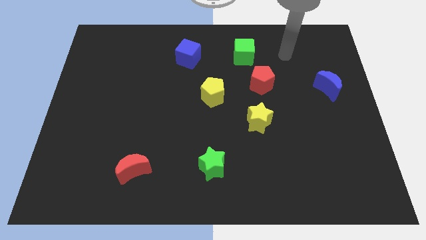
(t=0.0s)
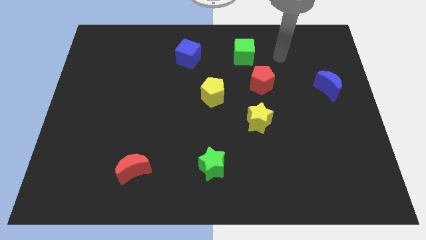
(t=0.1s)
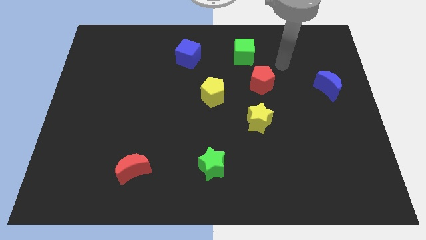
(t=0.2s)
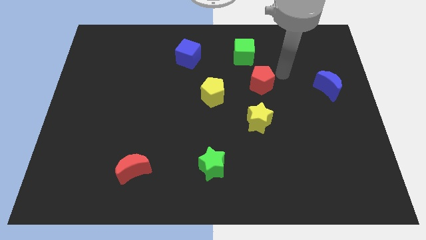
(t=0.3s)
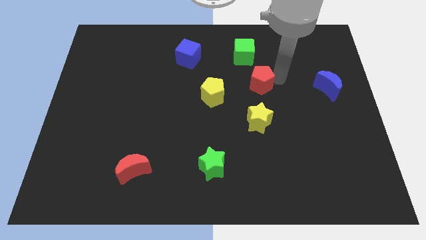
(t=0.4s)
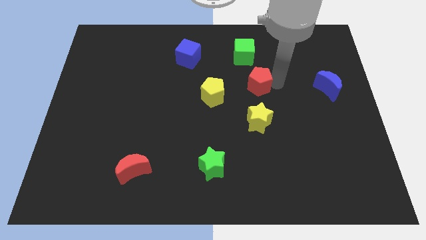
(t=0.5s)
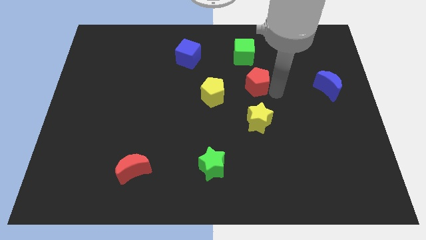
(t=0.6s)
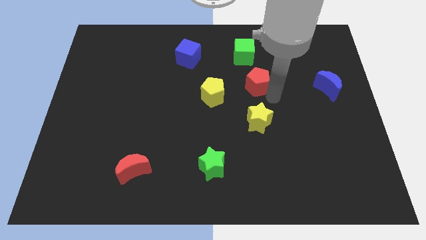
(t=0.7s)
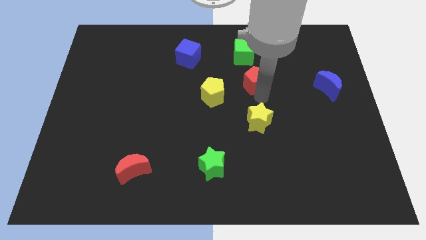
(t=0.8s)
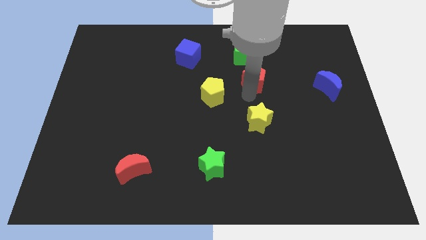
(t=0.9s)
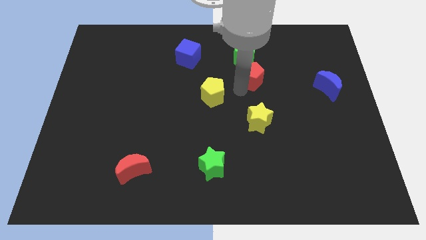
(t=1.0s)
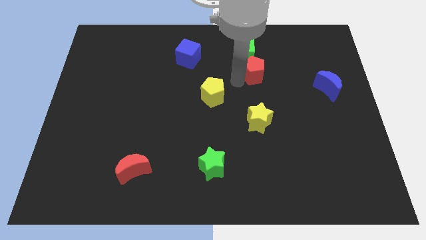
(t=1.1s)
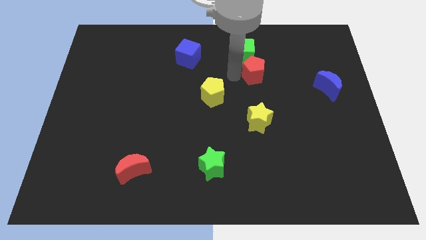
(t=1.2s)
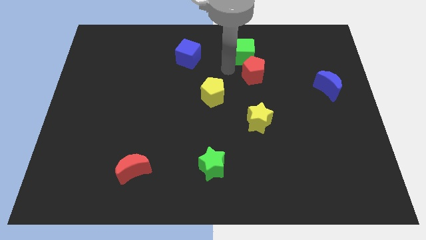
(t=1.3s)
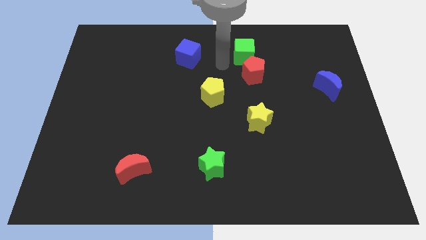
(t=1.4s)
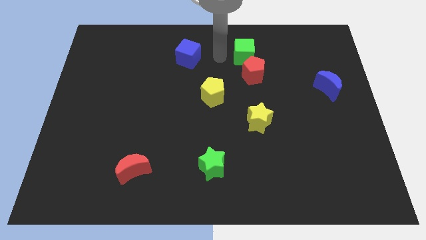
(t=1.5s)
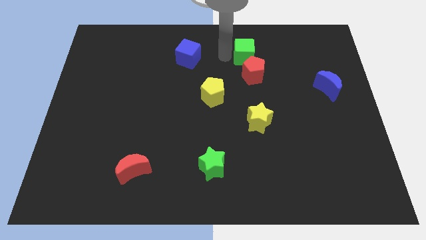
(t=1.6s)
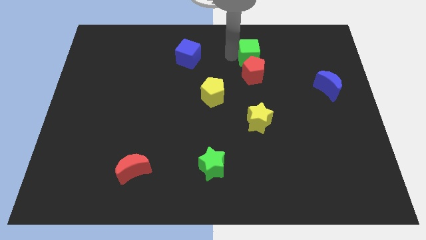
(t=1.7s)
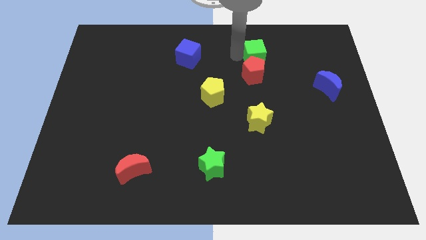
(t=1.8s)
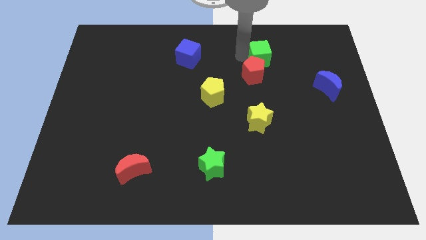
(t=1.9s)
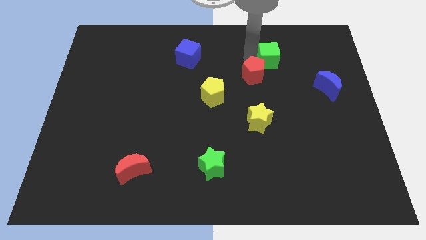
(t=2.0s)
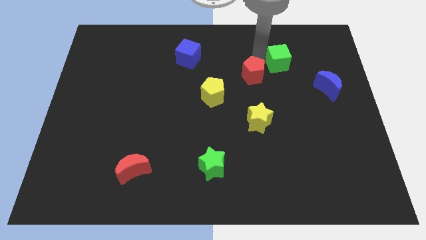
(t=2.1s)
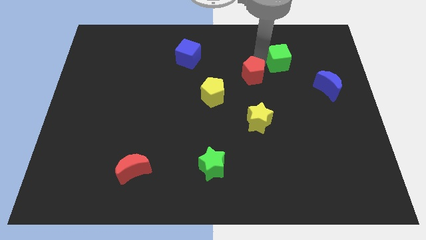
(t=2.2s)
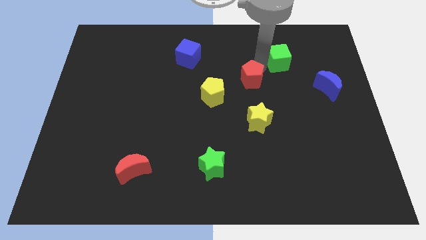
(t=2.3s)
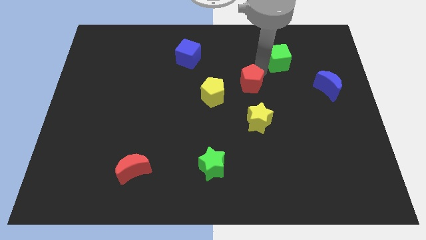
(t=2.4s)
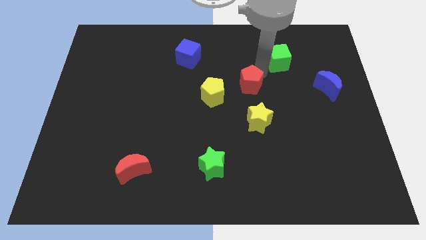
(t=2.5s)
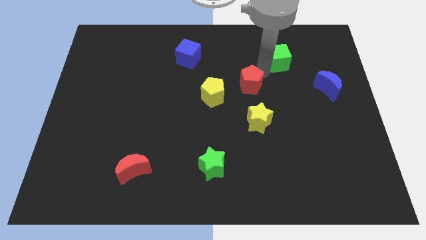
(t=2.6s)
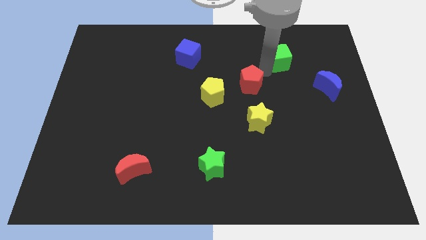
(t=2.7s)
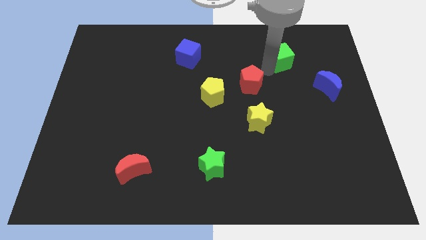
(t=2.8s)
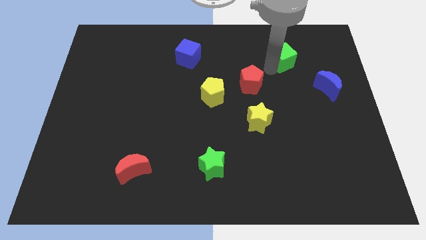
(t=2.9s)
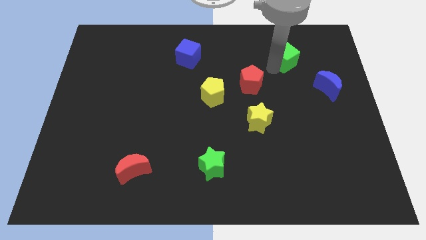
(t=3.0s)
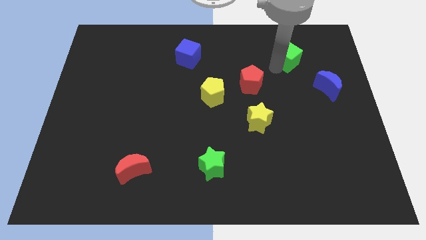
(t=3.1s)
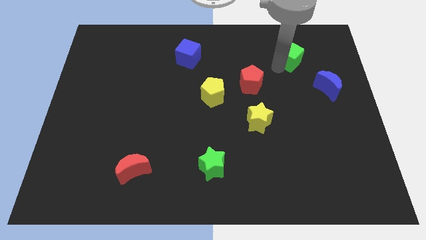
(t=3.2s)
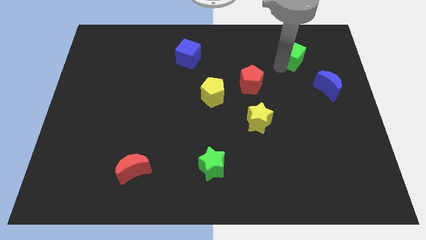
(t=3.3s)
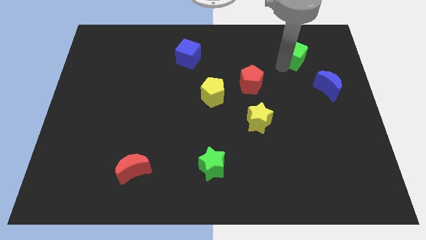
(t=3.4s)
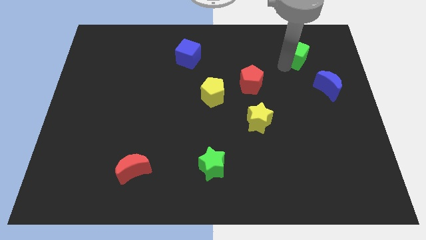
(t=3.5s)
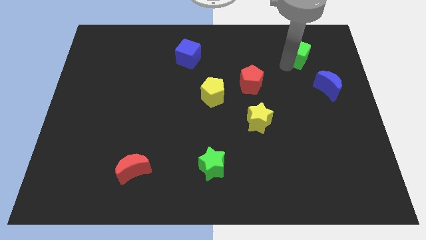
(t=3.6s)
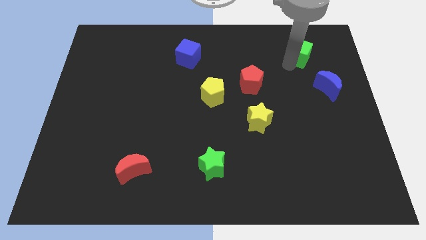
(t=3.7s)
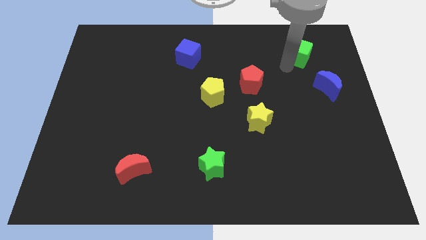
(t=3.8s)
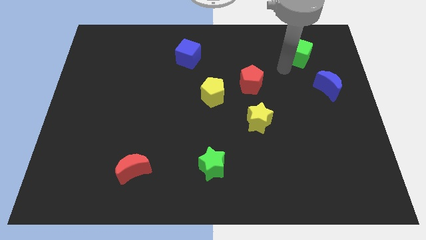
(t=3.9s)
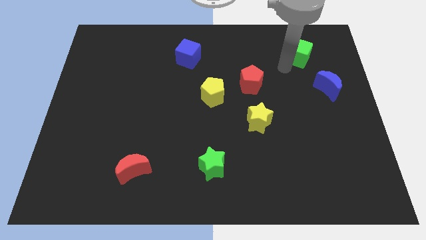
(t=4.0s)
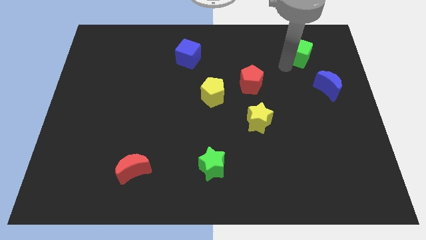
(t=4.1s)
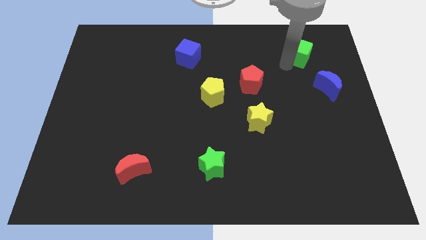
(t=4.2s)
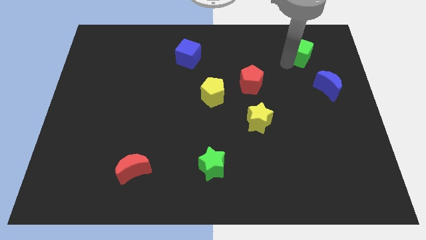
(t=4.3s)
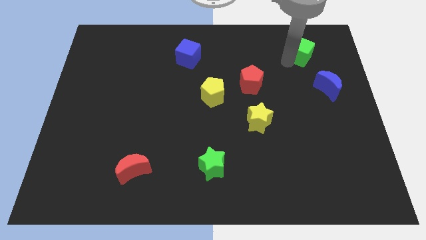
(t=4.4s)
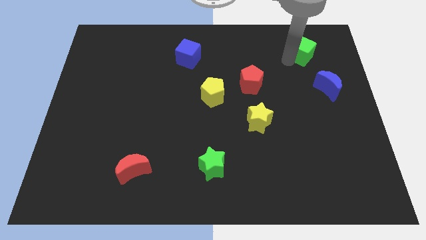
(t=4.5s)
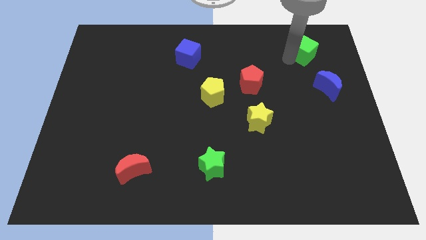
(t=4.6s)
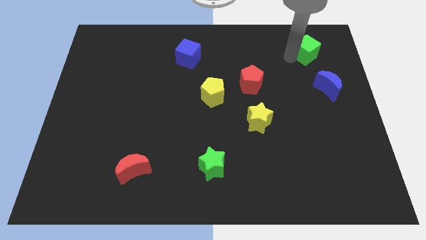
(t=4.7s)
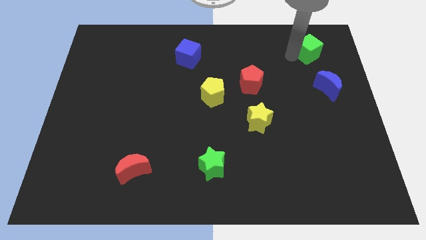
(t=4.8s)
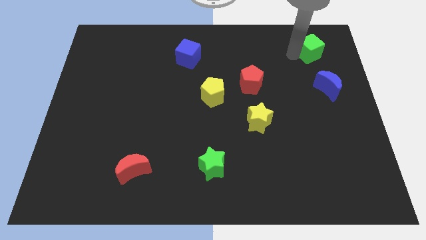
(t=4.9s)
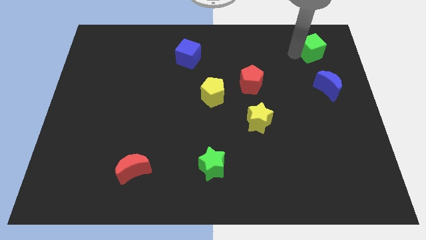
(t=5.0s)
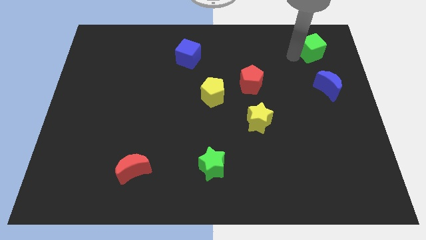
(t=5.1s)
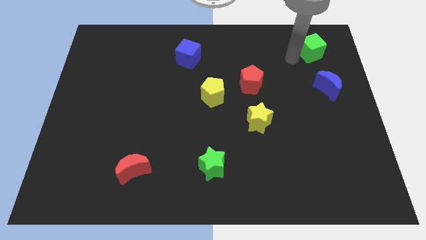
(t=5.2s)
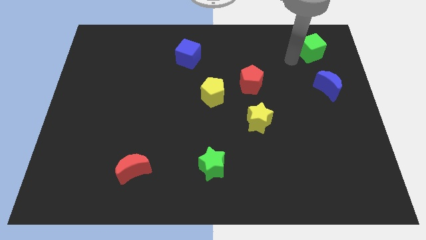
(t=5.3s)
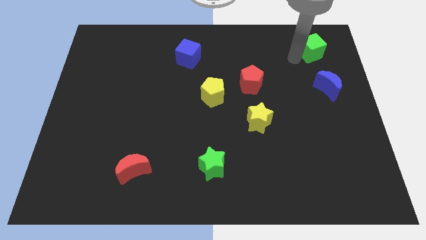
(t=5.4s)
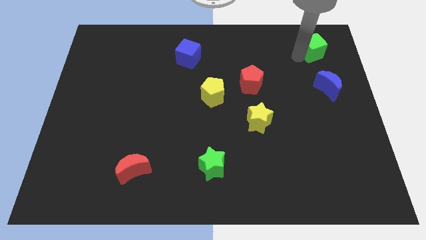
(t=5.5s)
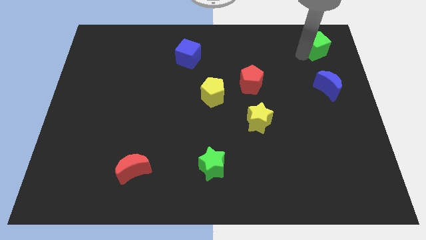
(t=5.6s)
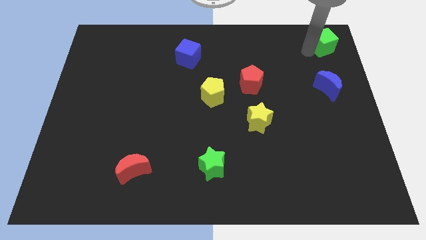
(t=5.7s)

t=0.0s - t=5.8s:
move the green cube to the top right
